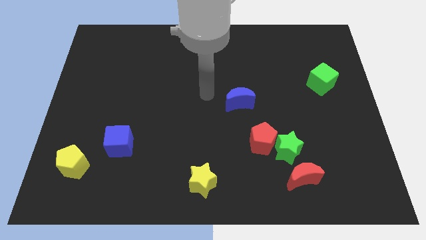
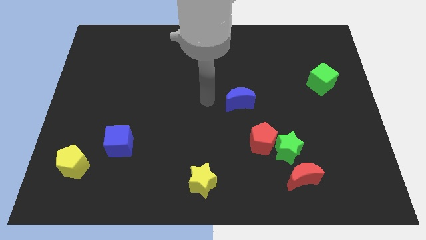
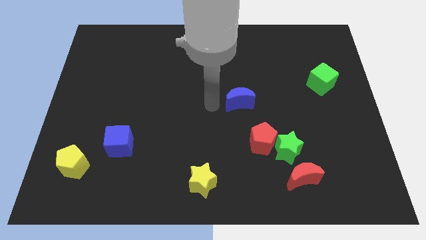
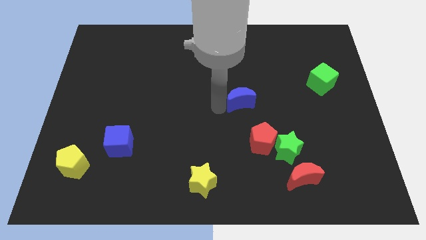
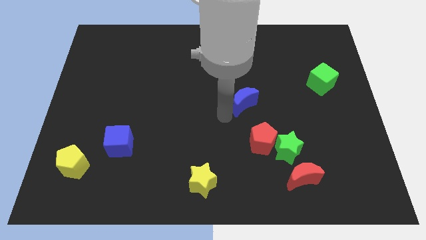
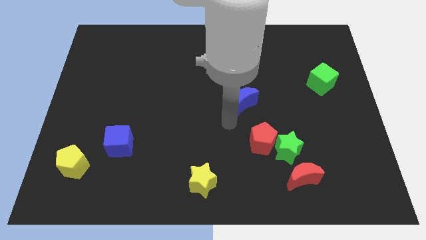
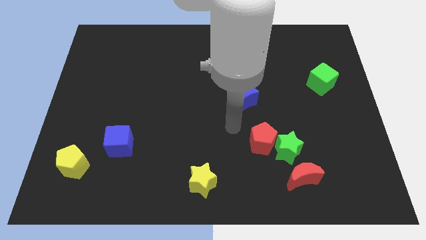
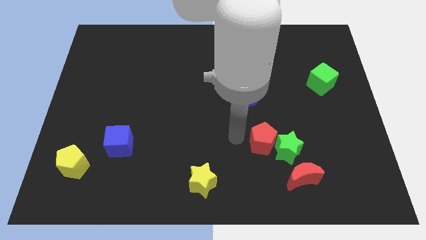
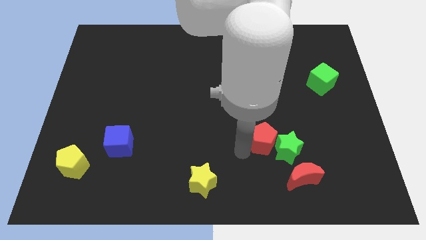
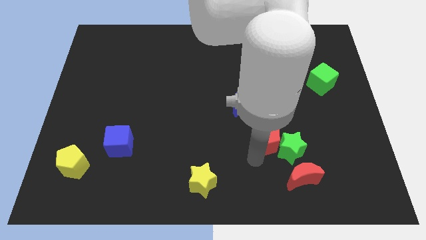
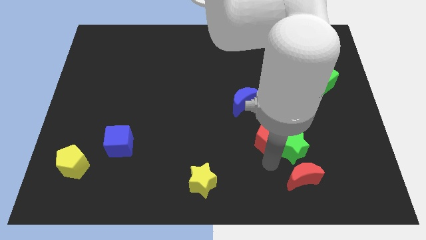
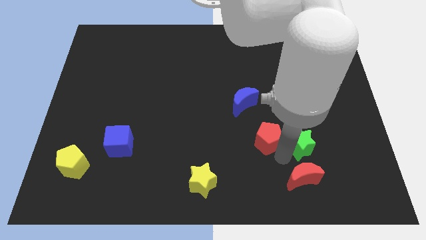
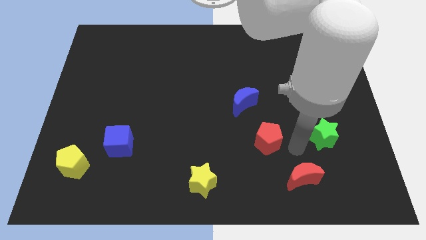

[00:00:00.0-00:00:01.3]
pull the red pentagon apart from the green star

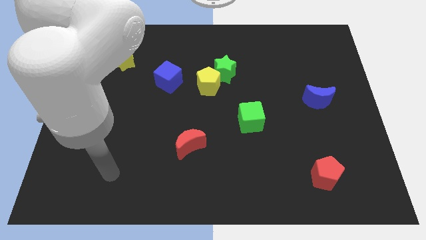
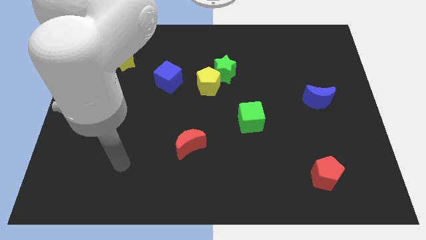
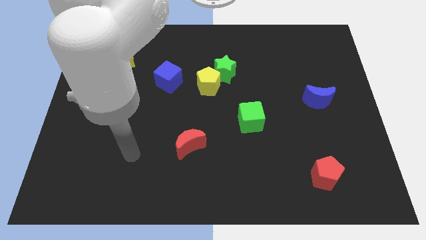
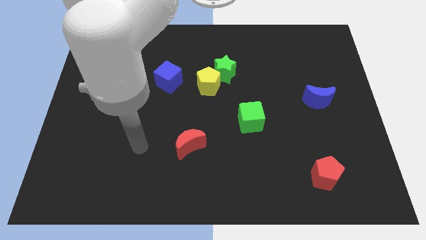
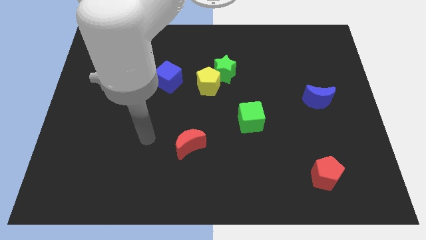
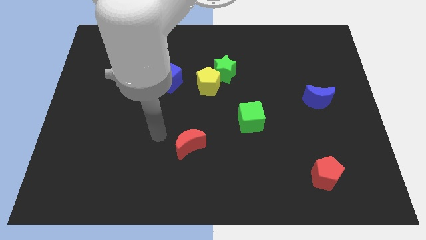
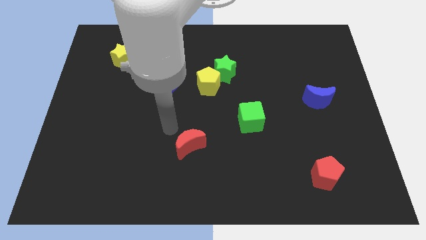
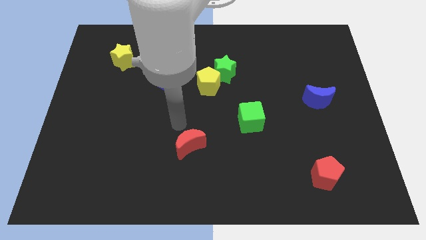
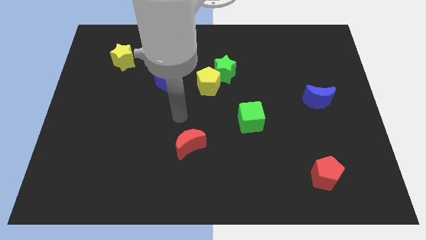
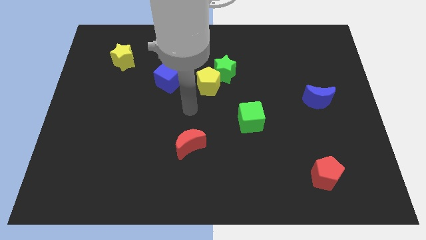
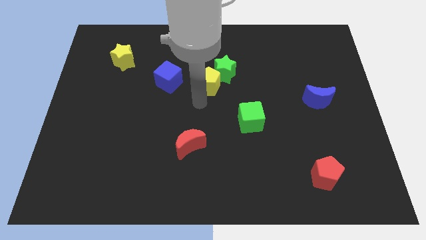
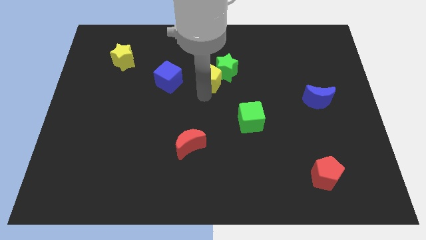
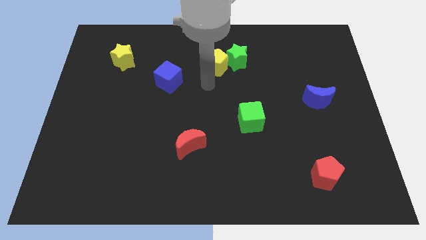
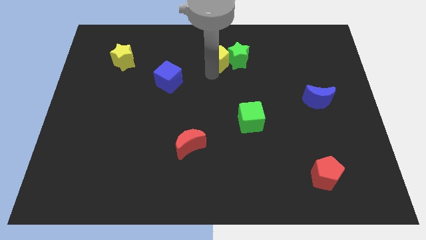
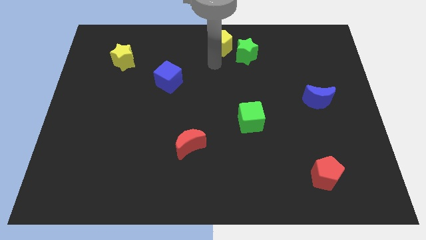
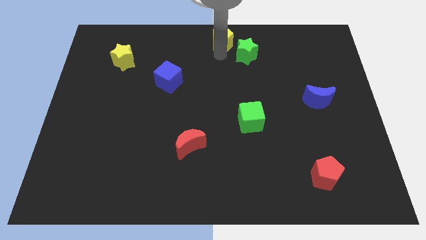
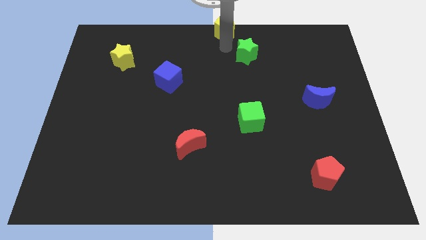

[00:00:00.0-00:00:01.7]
move the green star away from the yellow pentagon

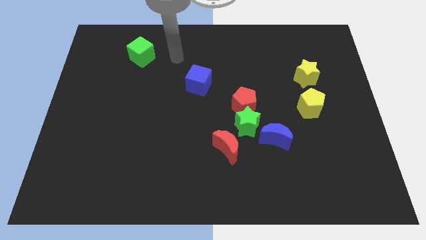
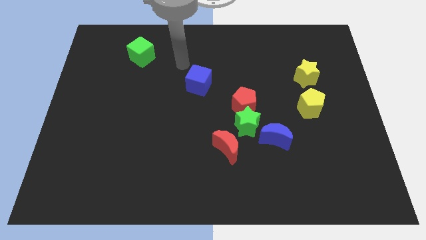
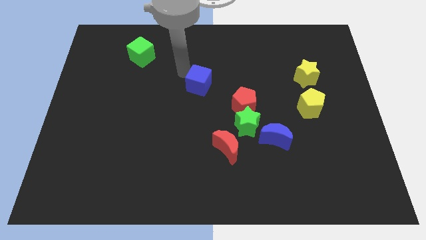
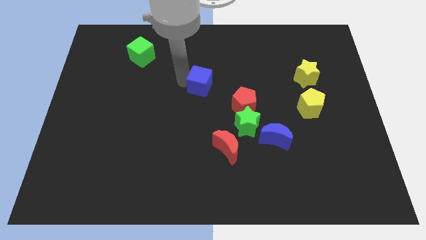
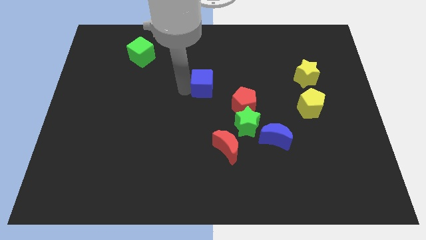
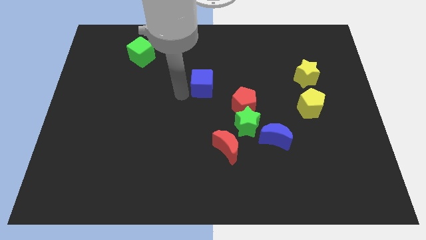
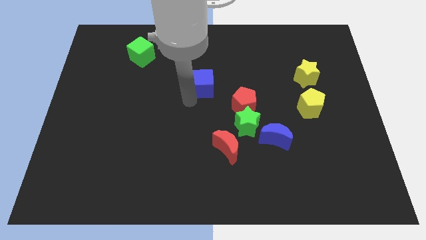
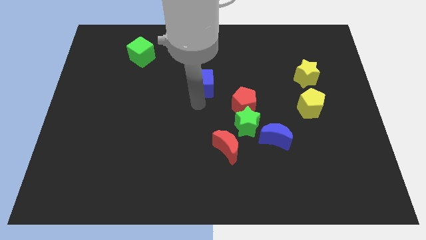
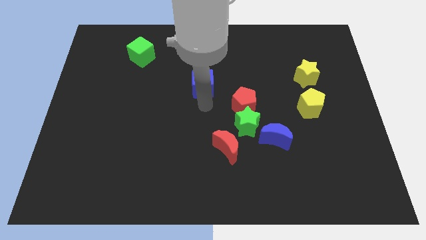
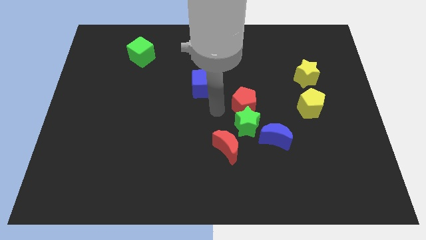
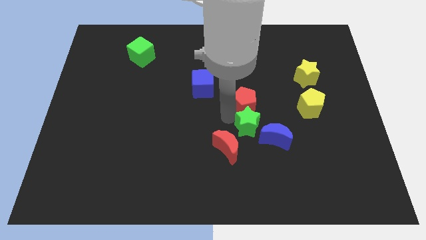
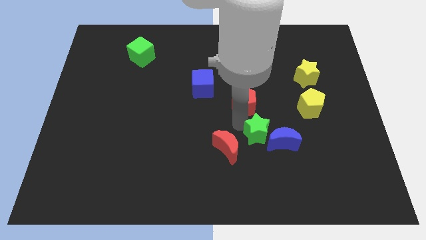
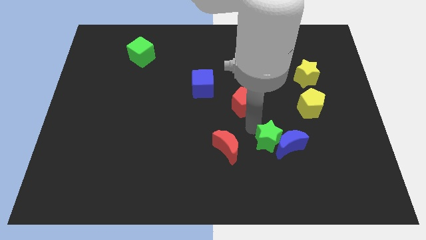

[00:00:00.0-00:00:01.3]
separate the red pentagon from the green star

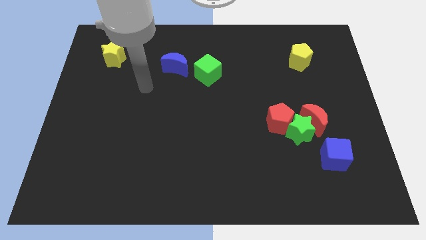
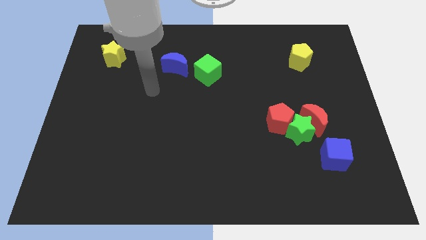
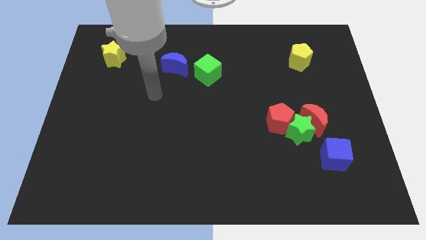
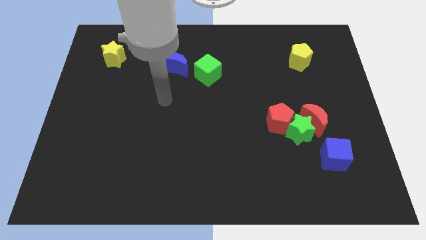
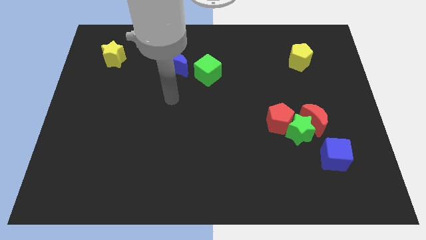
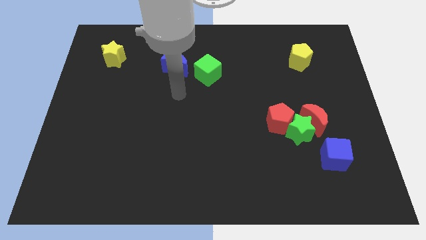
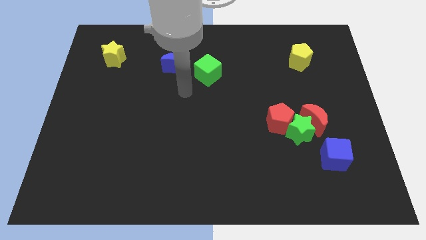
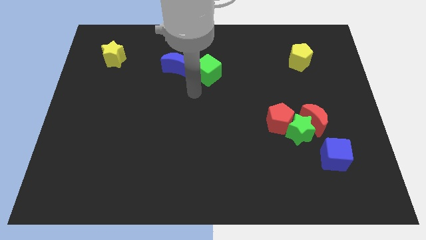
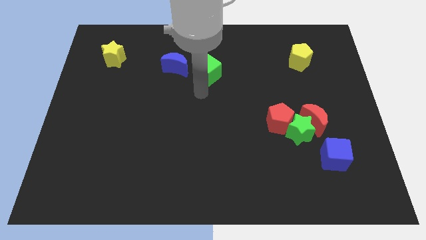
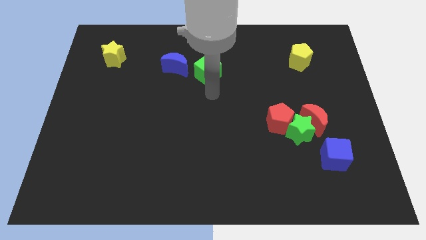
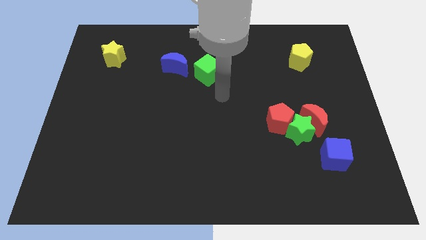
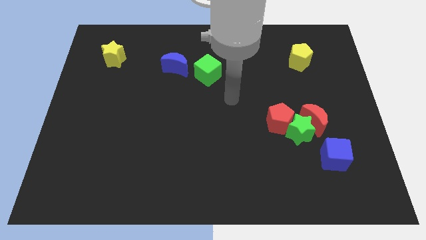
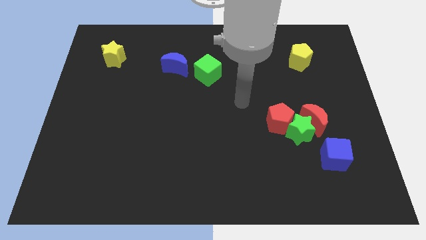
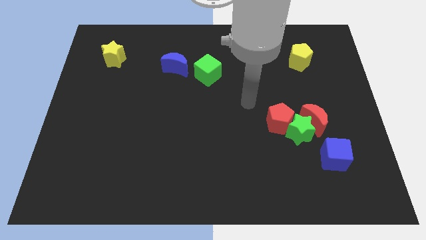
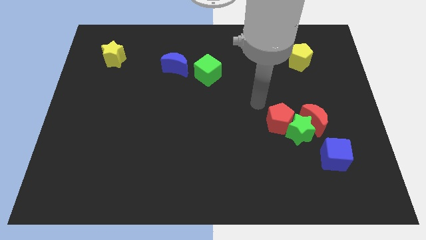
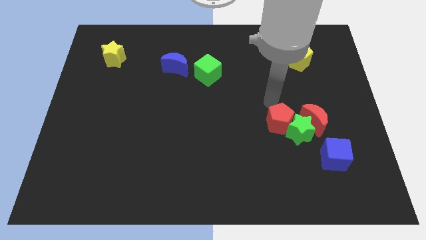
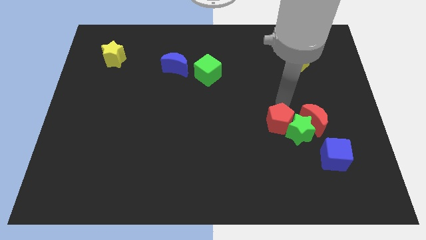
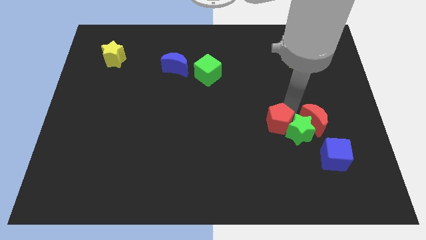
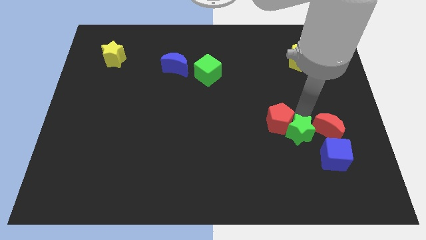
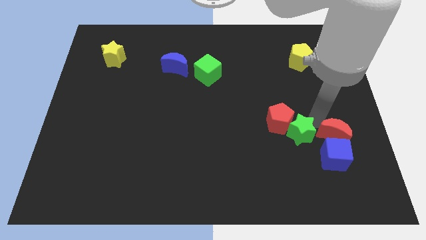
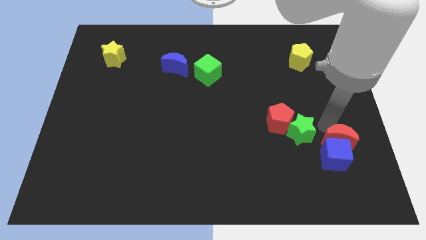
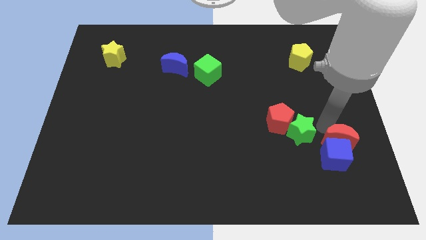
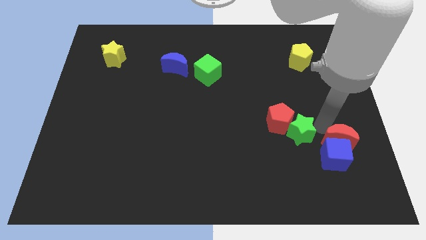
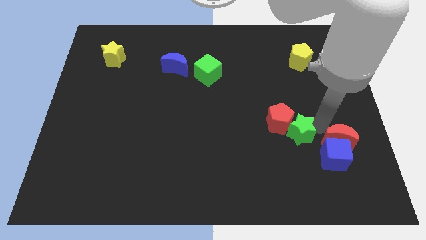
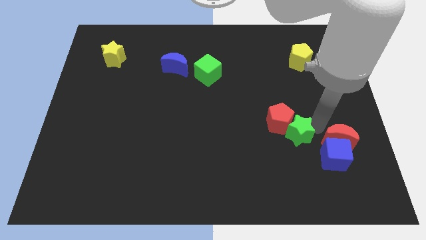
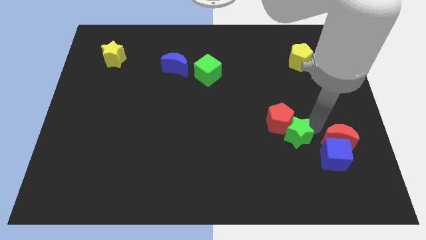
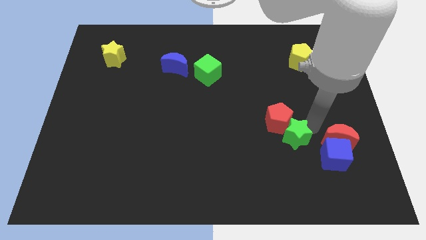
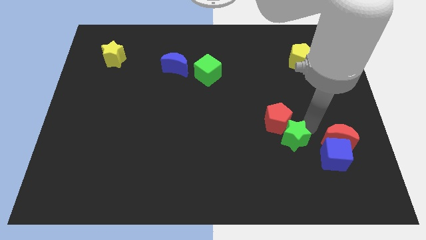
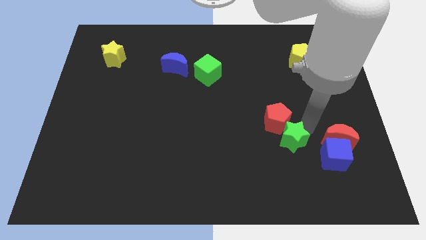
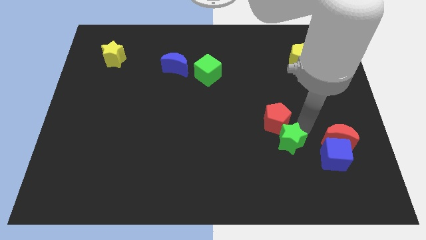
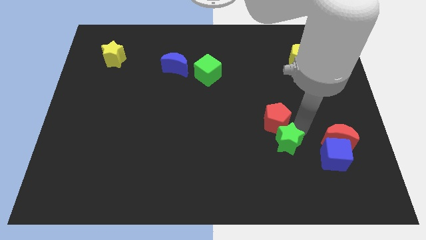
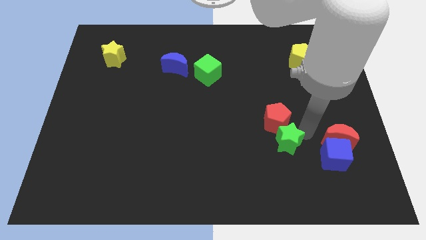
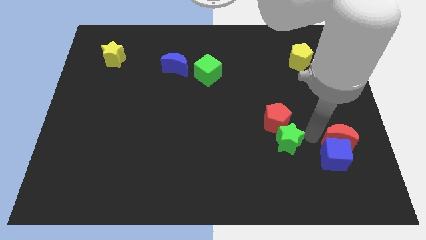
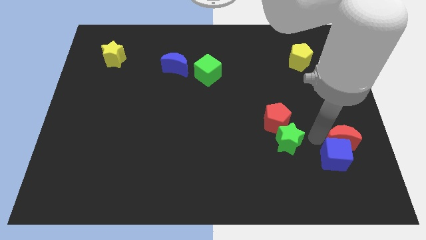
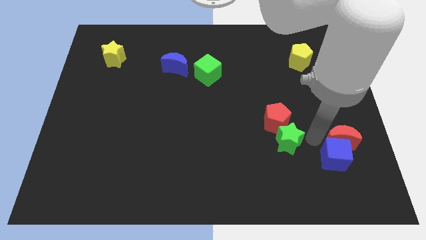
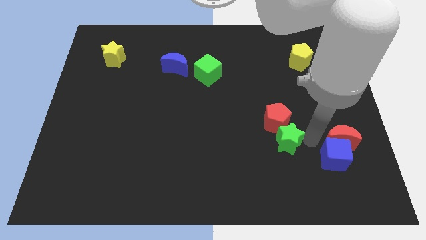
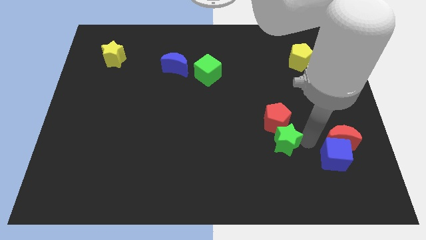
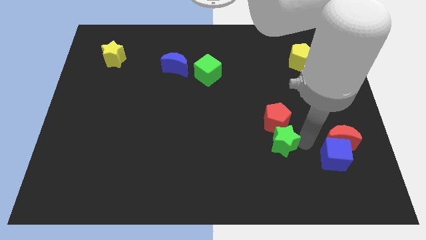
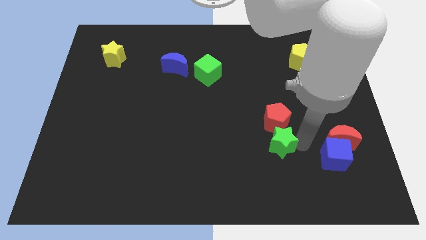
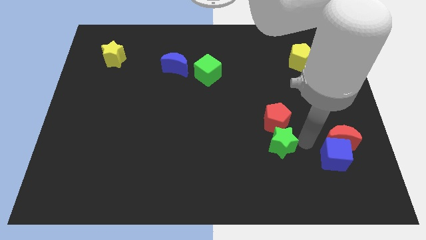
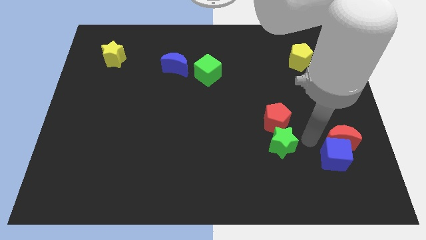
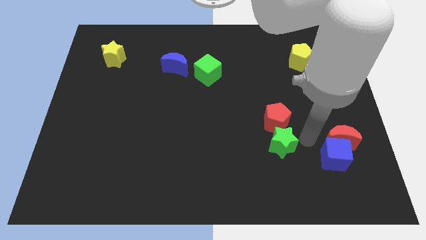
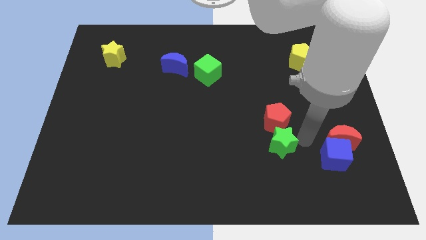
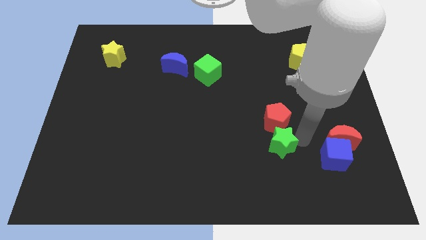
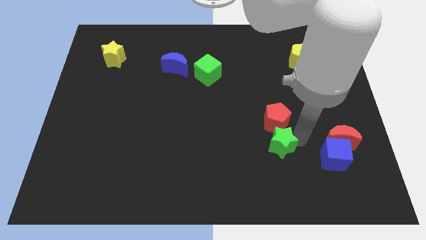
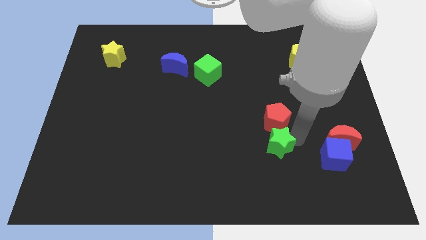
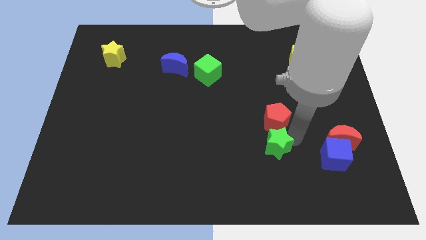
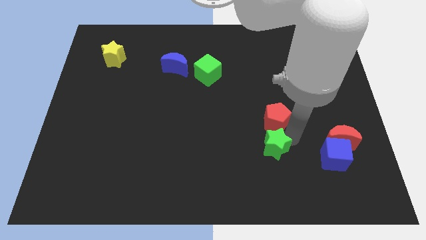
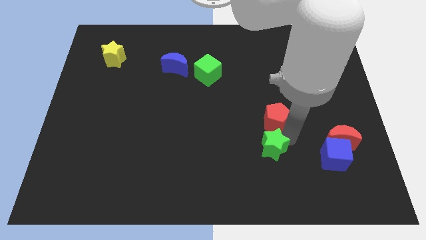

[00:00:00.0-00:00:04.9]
separate the green star from the red moon, red pentagon, and blue cube

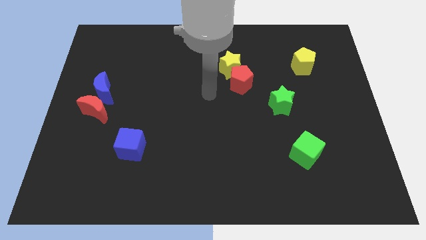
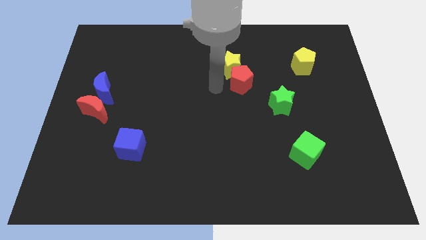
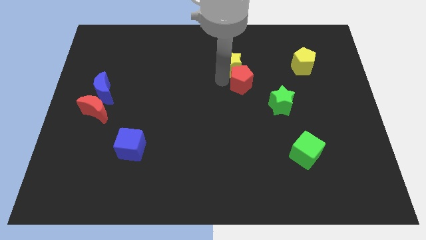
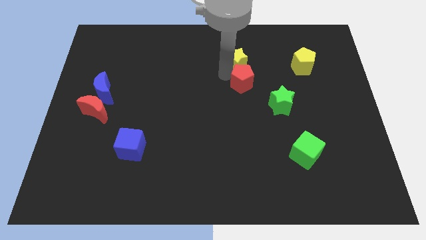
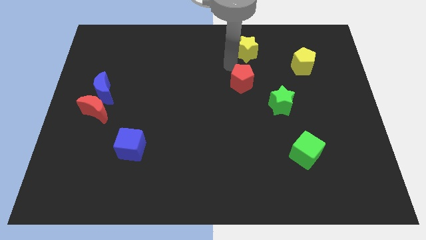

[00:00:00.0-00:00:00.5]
move the red pentagon away from the yellow star
